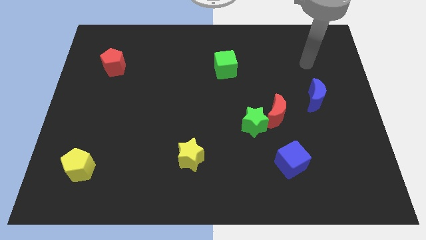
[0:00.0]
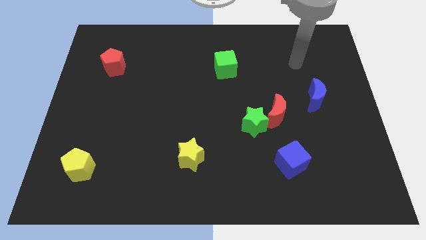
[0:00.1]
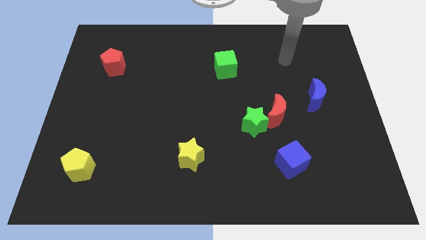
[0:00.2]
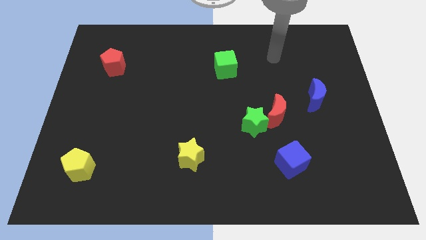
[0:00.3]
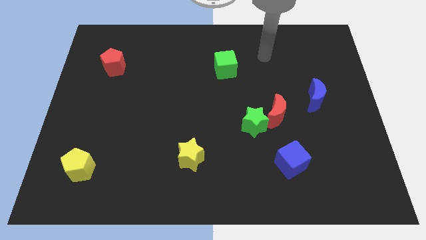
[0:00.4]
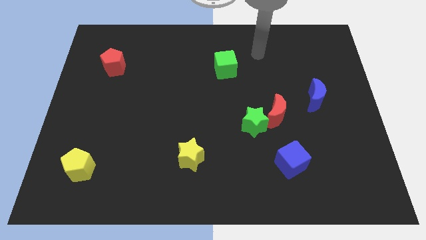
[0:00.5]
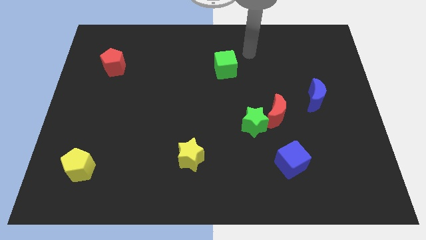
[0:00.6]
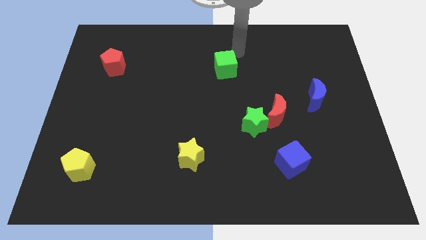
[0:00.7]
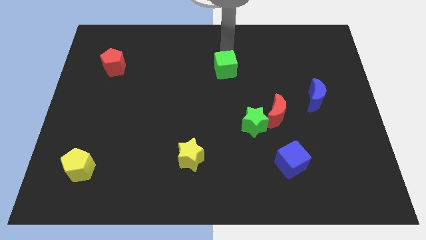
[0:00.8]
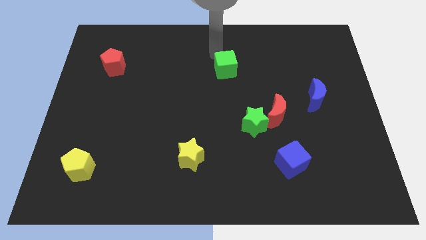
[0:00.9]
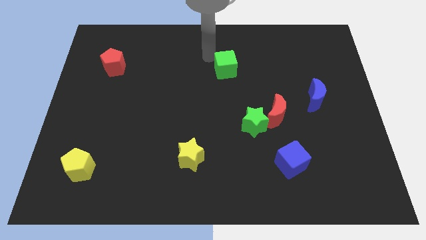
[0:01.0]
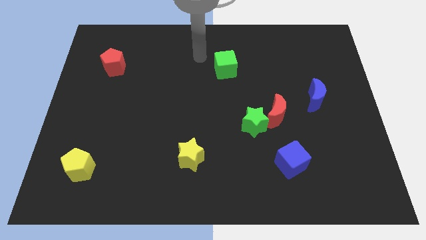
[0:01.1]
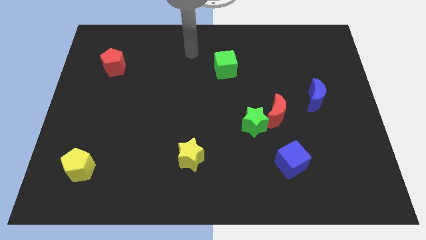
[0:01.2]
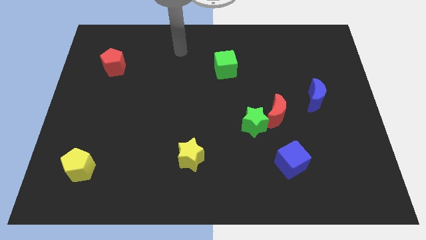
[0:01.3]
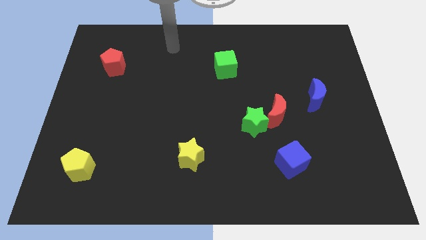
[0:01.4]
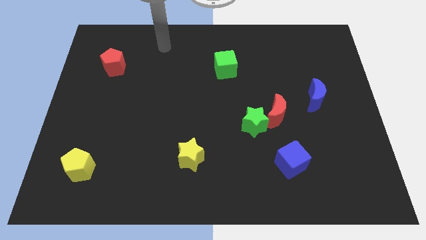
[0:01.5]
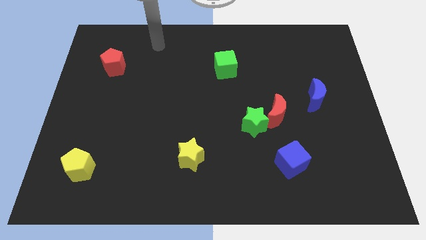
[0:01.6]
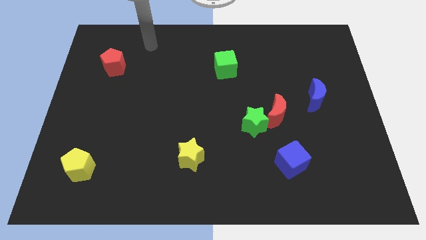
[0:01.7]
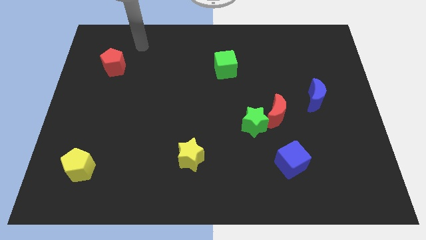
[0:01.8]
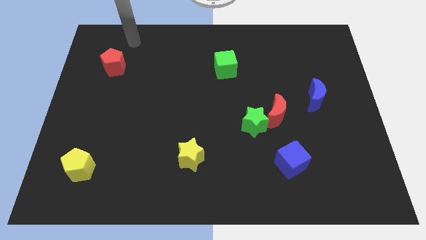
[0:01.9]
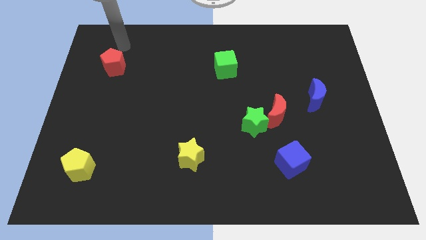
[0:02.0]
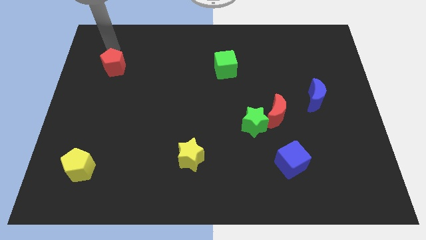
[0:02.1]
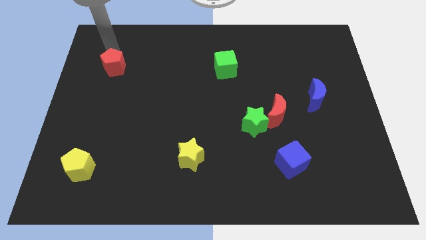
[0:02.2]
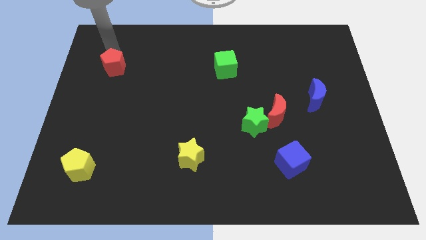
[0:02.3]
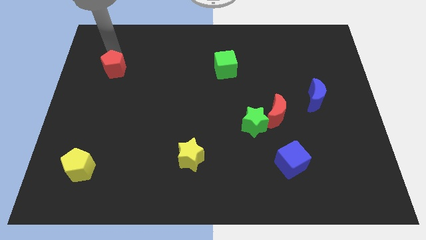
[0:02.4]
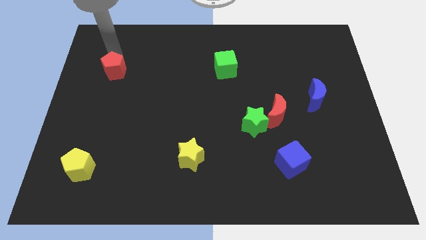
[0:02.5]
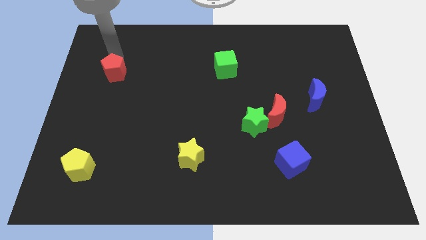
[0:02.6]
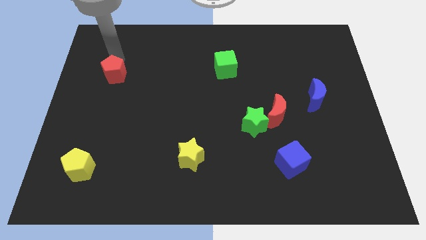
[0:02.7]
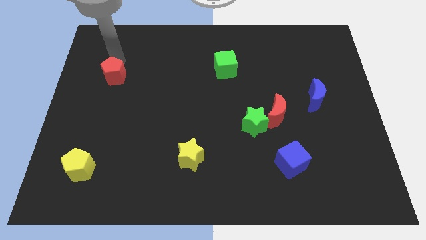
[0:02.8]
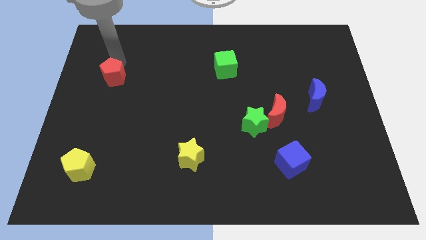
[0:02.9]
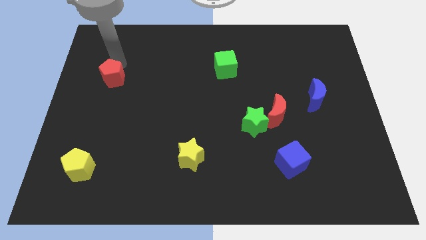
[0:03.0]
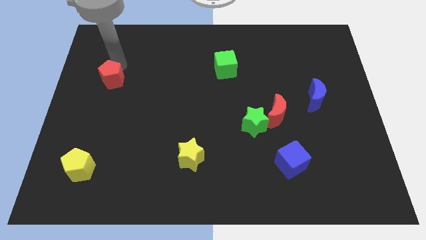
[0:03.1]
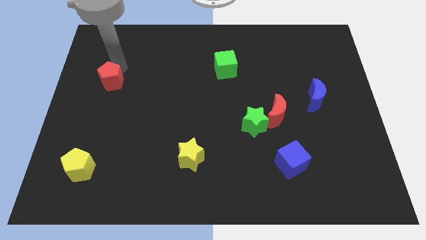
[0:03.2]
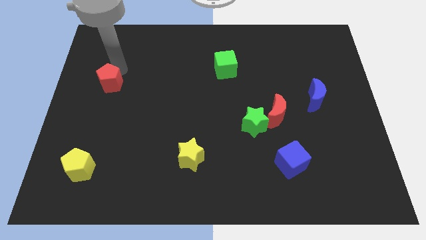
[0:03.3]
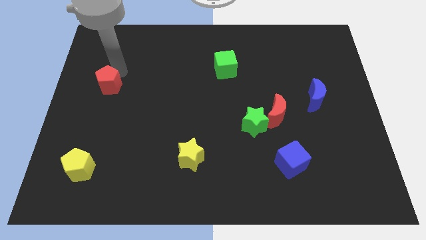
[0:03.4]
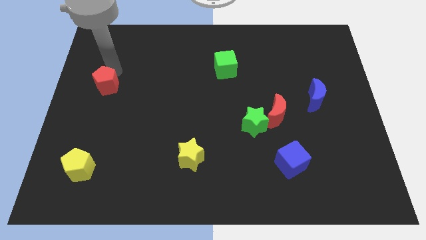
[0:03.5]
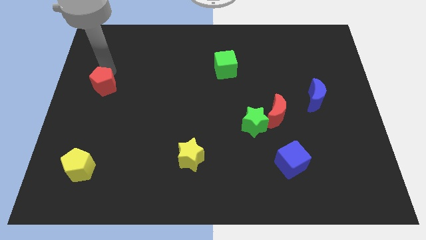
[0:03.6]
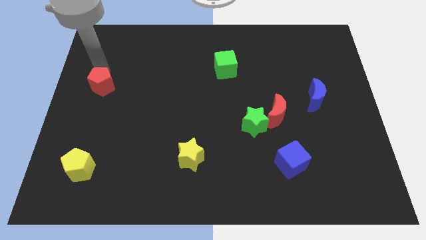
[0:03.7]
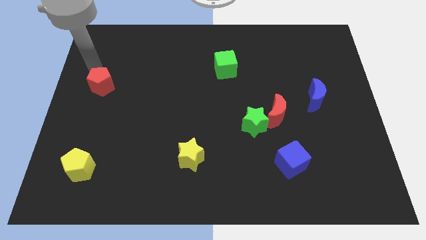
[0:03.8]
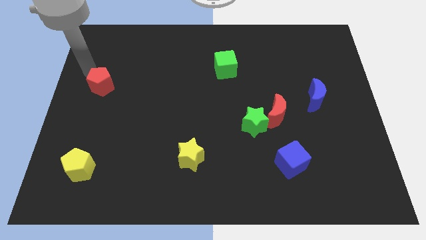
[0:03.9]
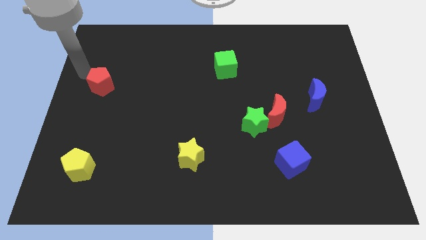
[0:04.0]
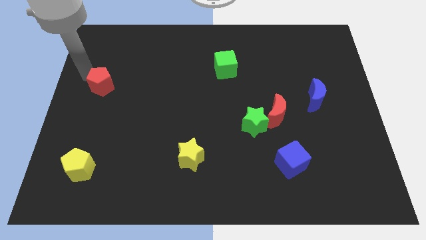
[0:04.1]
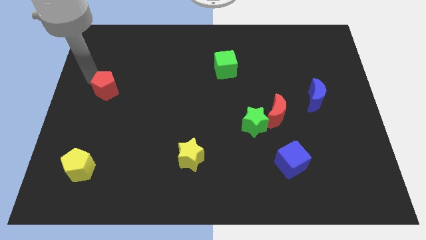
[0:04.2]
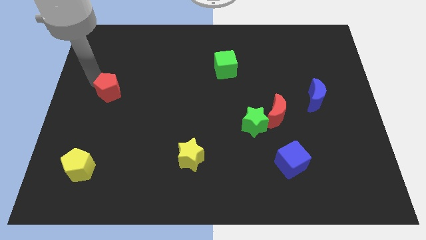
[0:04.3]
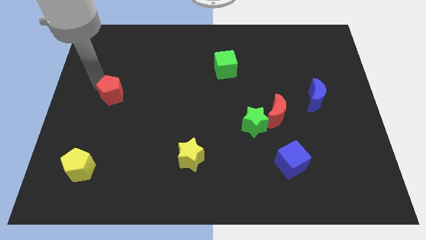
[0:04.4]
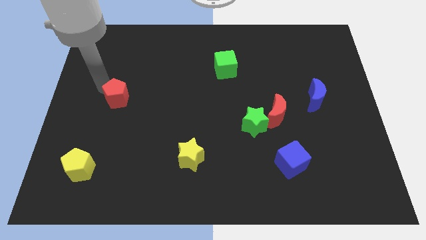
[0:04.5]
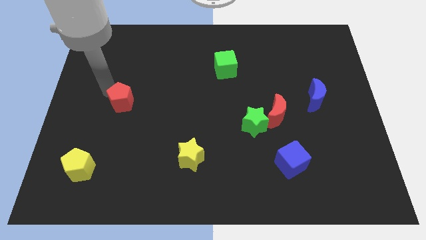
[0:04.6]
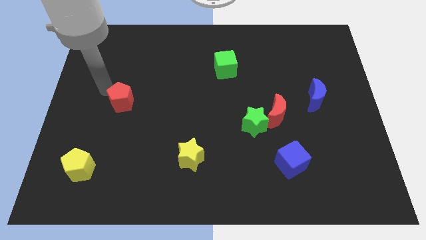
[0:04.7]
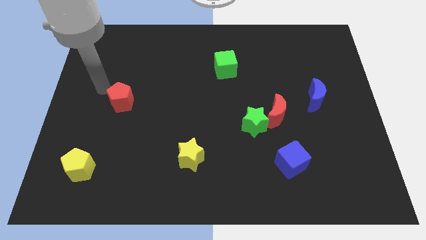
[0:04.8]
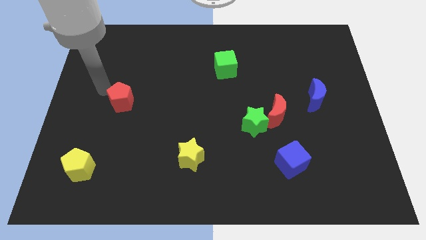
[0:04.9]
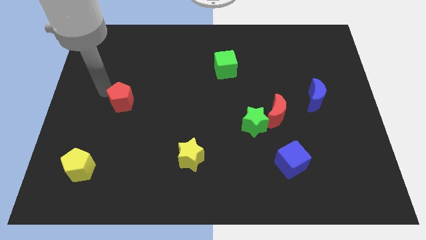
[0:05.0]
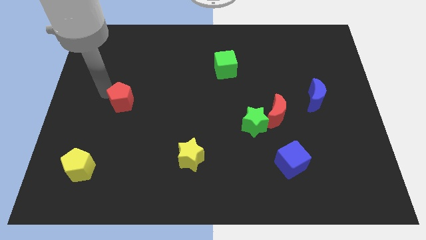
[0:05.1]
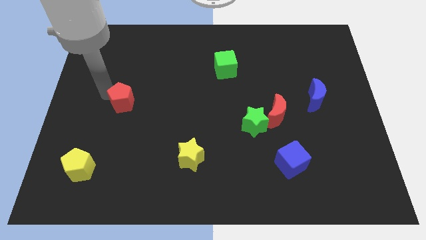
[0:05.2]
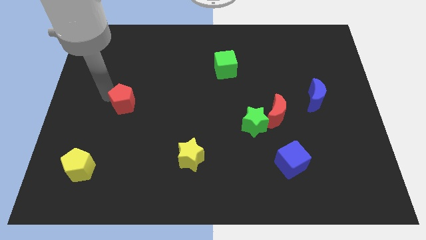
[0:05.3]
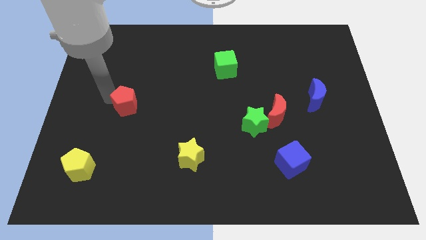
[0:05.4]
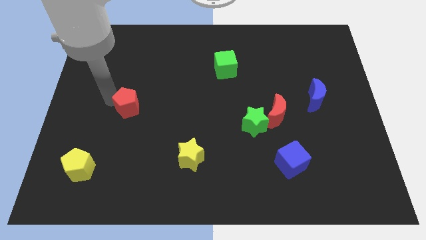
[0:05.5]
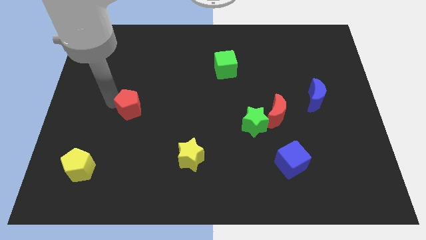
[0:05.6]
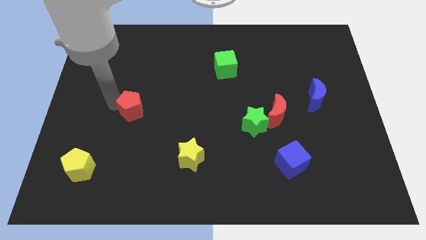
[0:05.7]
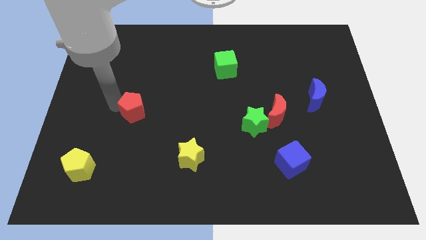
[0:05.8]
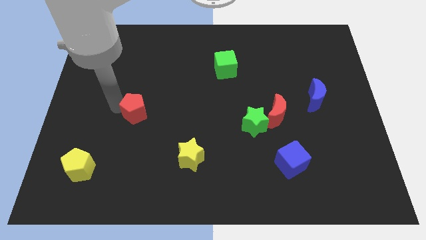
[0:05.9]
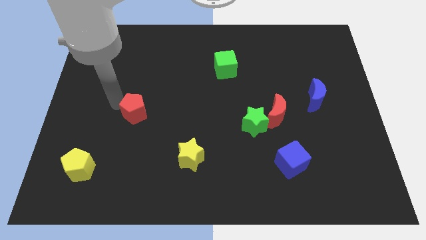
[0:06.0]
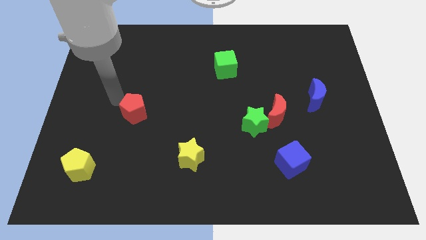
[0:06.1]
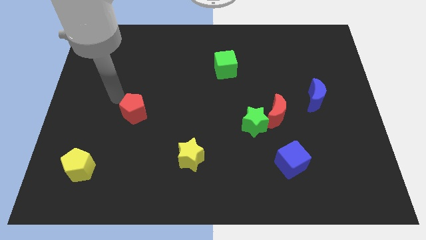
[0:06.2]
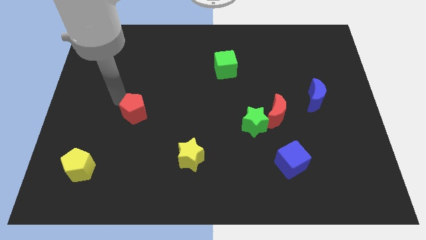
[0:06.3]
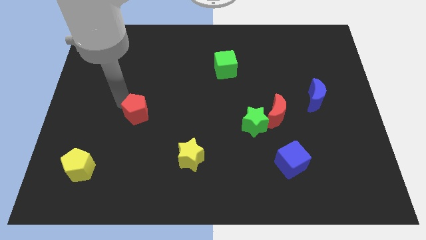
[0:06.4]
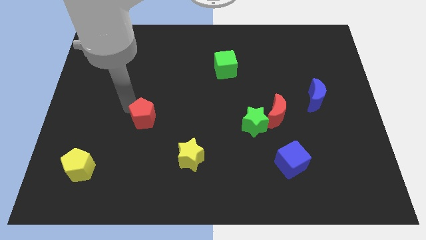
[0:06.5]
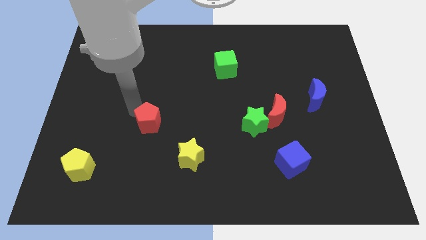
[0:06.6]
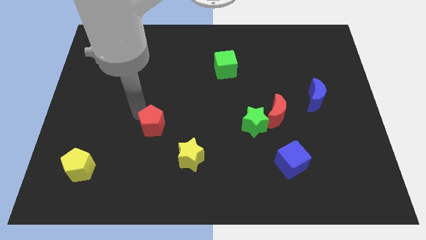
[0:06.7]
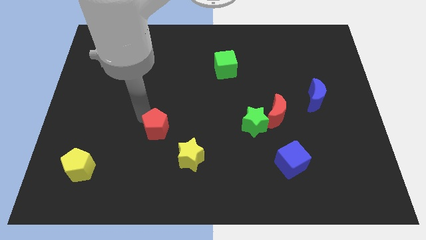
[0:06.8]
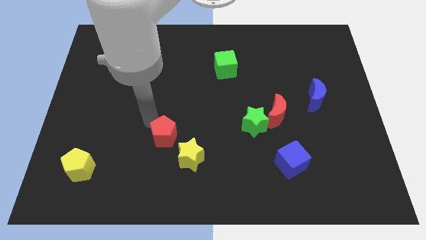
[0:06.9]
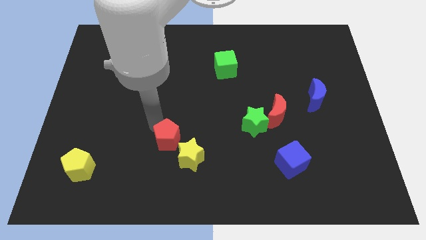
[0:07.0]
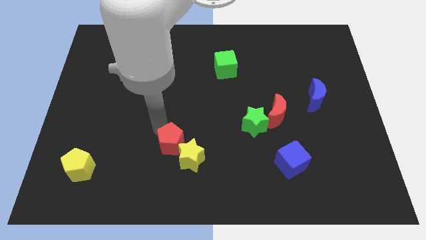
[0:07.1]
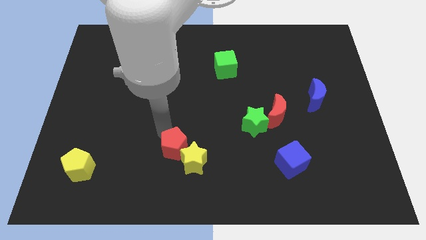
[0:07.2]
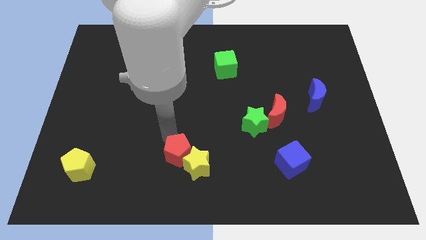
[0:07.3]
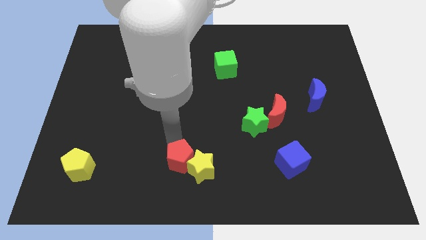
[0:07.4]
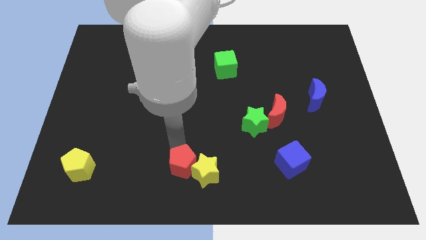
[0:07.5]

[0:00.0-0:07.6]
put the red pentagon to the bottom
